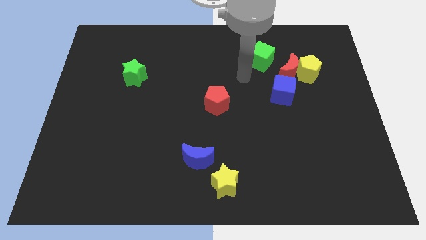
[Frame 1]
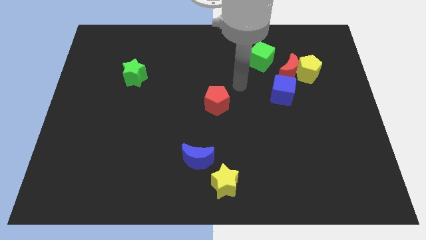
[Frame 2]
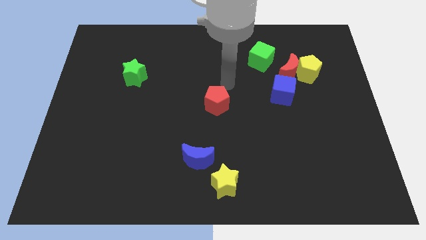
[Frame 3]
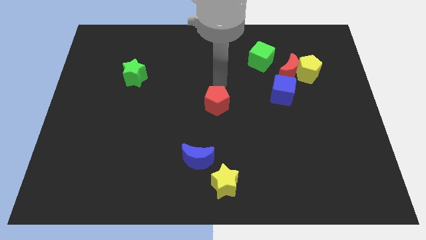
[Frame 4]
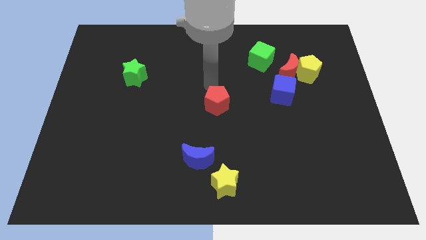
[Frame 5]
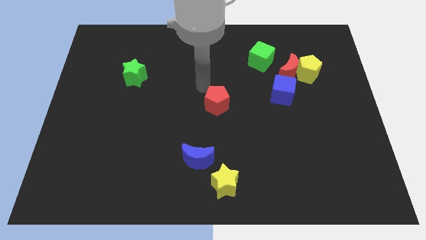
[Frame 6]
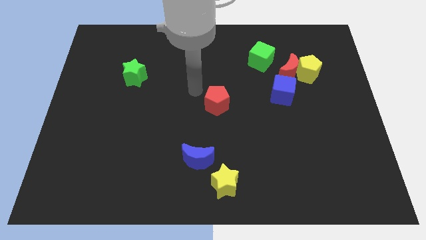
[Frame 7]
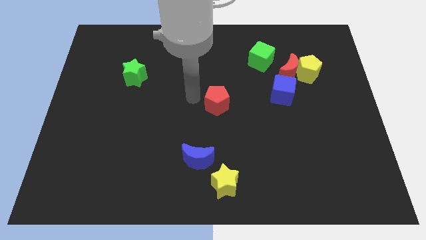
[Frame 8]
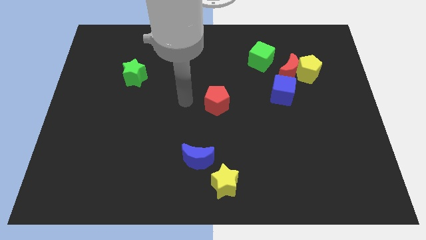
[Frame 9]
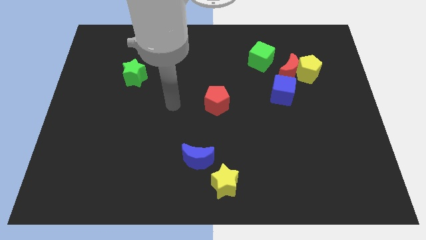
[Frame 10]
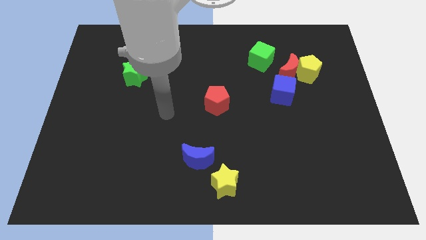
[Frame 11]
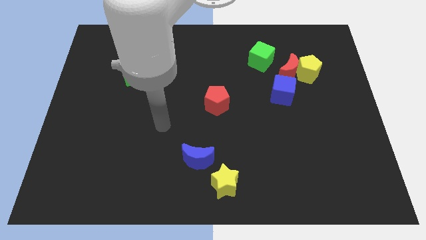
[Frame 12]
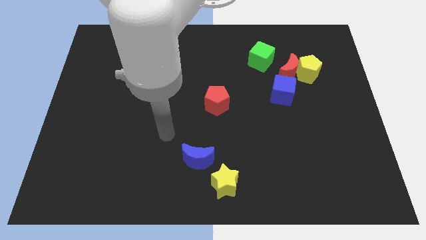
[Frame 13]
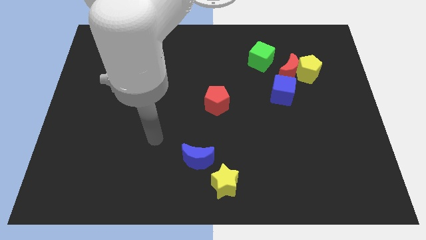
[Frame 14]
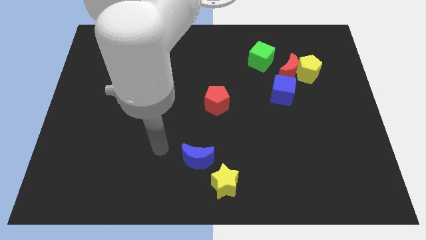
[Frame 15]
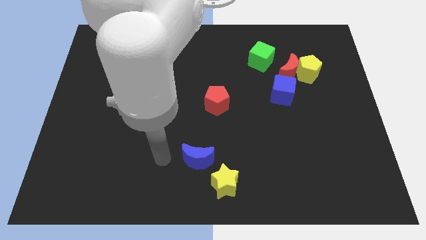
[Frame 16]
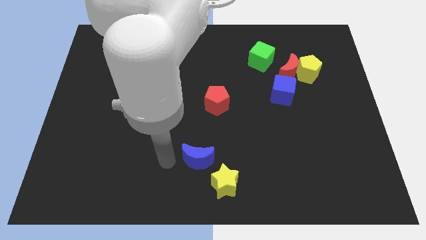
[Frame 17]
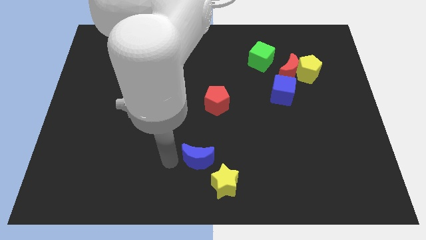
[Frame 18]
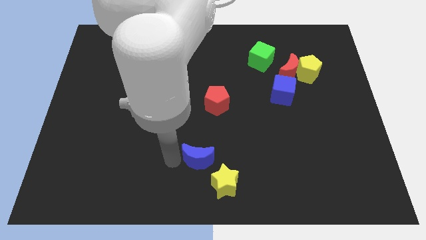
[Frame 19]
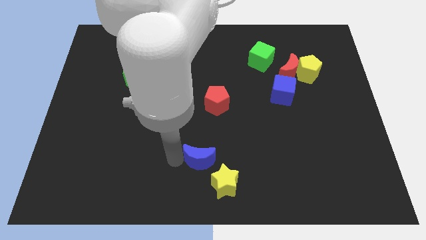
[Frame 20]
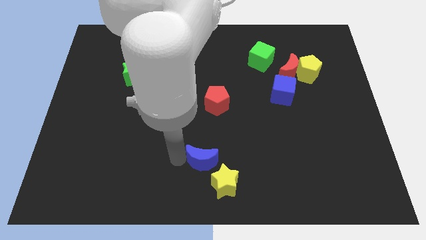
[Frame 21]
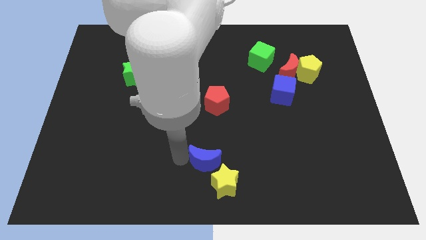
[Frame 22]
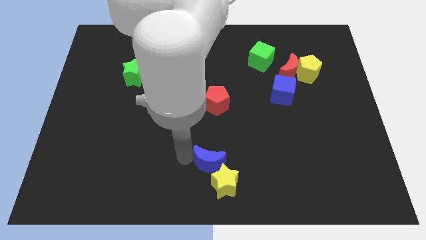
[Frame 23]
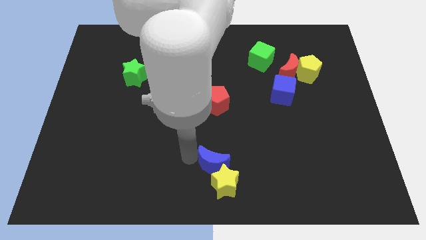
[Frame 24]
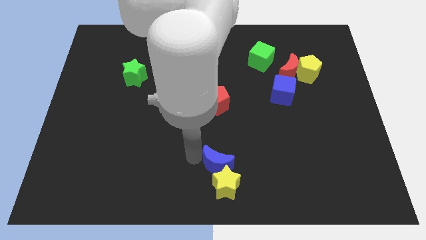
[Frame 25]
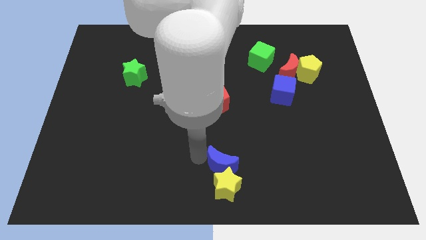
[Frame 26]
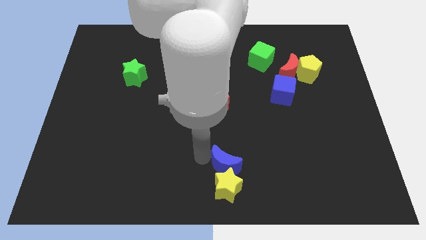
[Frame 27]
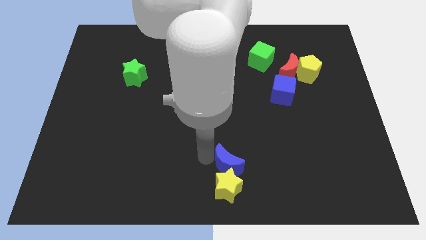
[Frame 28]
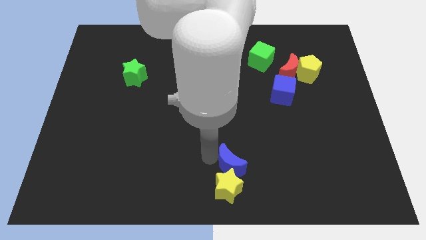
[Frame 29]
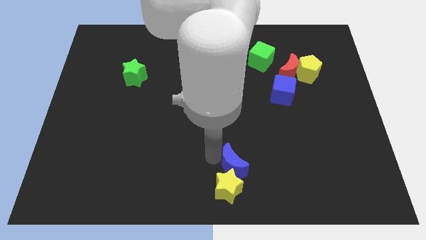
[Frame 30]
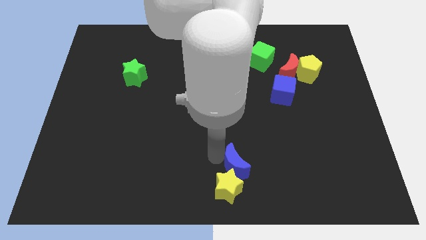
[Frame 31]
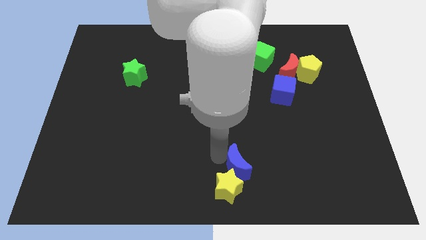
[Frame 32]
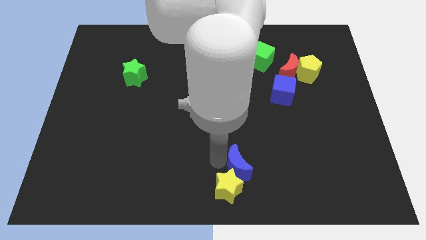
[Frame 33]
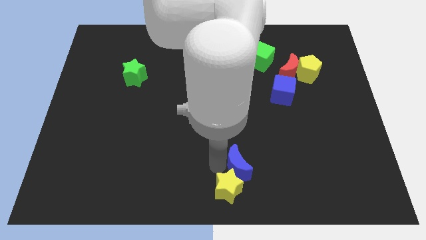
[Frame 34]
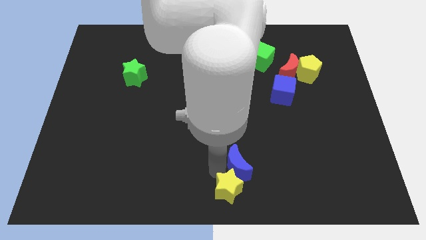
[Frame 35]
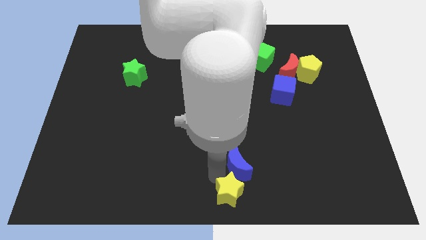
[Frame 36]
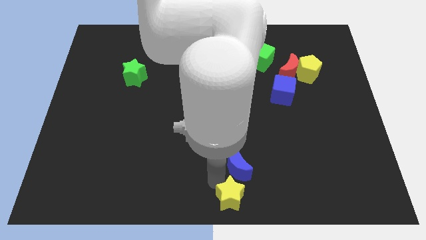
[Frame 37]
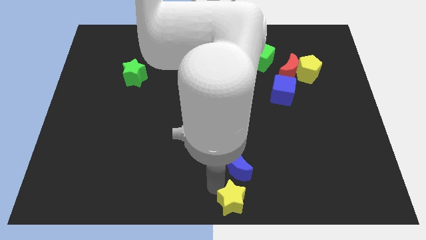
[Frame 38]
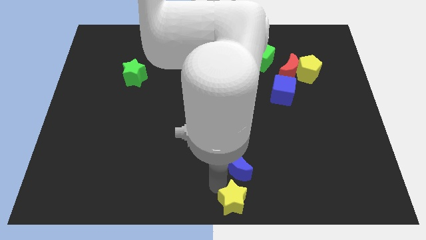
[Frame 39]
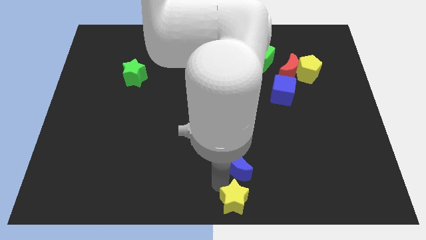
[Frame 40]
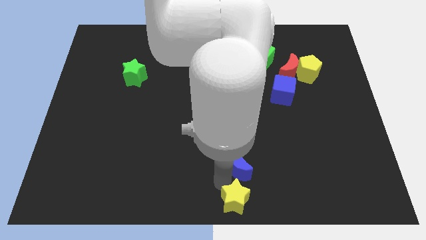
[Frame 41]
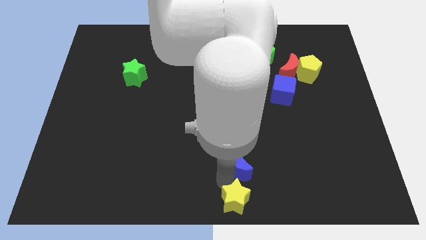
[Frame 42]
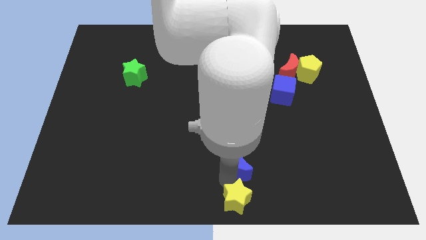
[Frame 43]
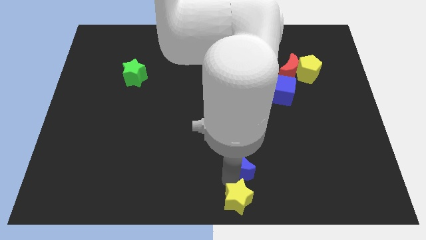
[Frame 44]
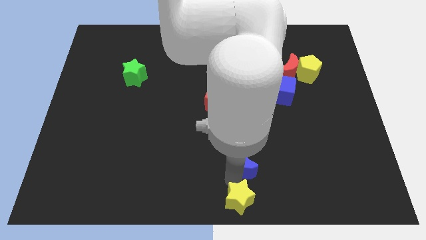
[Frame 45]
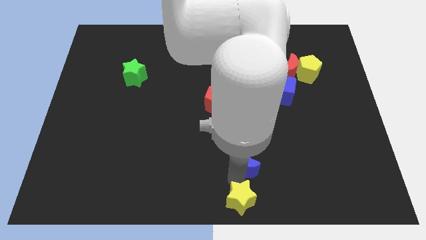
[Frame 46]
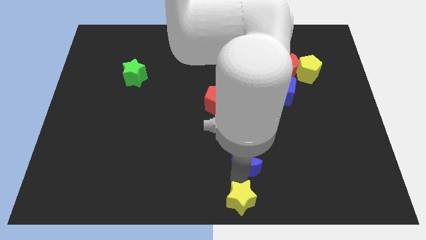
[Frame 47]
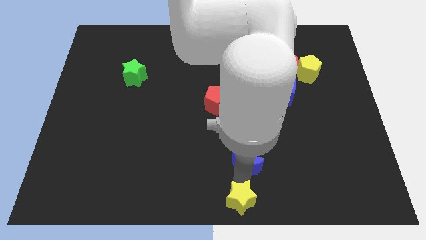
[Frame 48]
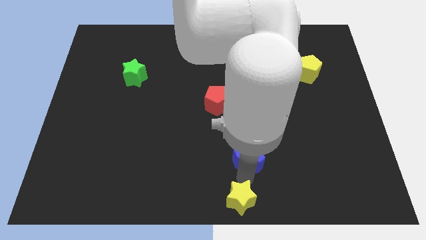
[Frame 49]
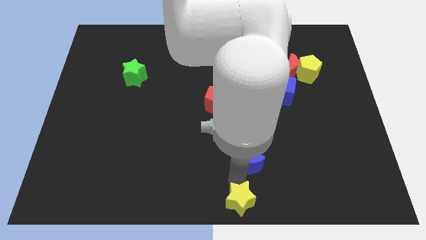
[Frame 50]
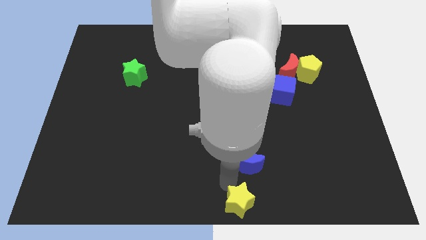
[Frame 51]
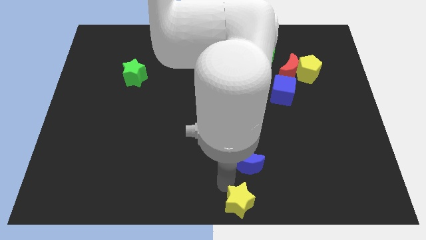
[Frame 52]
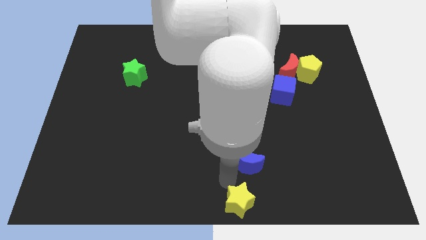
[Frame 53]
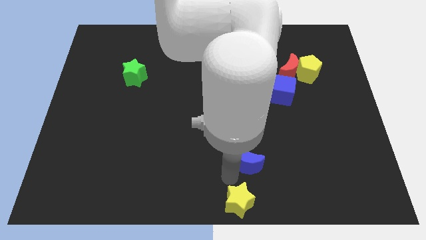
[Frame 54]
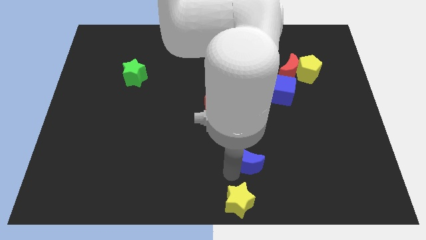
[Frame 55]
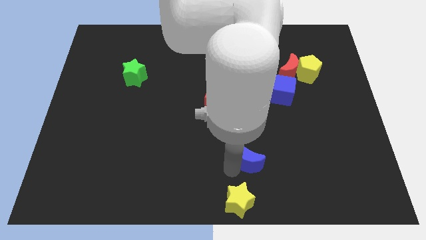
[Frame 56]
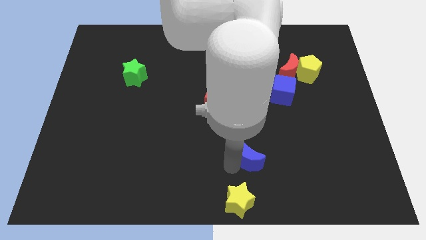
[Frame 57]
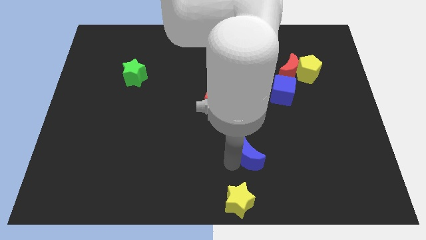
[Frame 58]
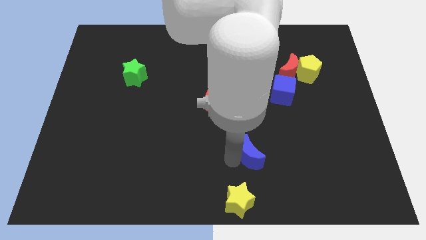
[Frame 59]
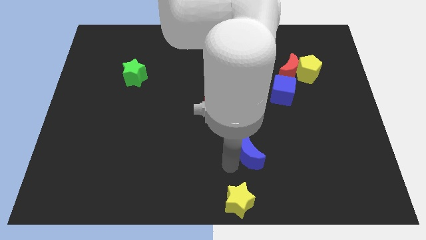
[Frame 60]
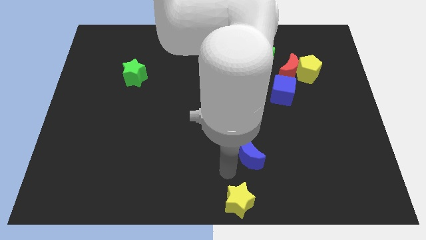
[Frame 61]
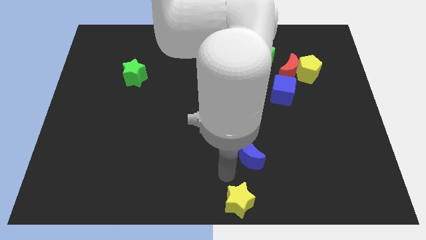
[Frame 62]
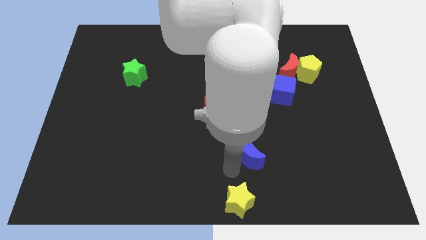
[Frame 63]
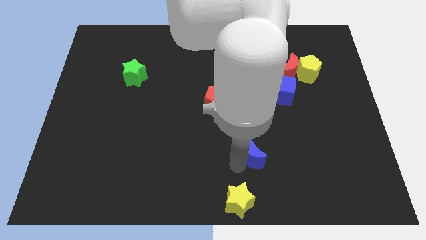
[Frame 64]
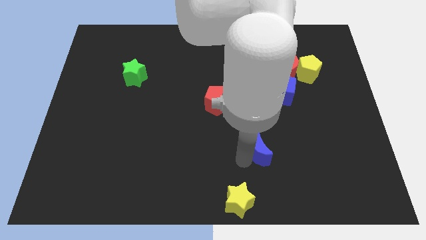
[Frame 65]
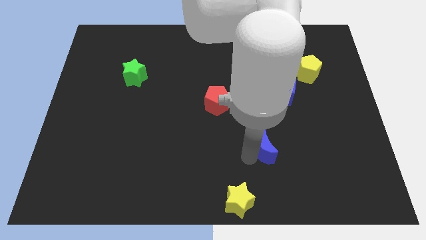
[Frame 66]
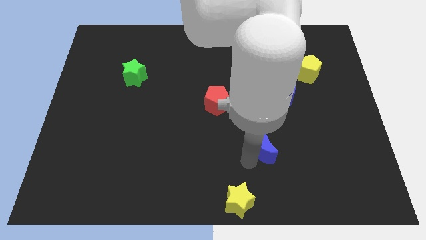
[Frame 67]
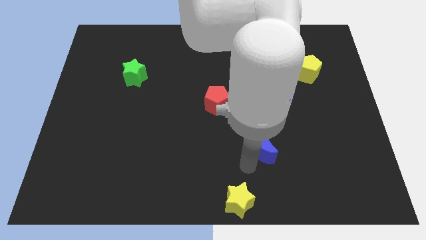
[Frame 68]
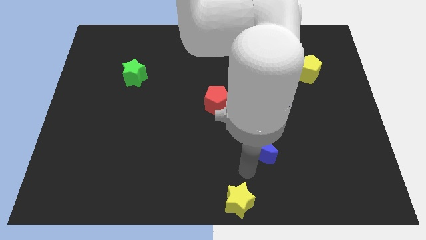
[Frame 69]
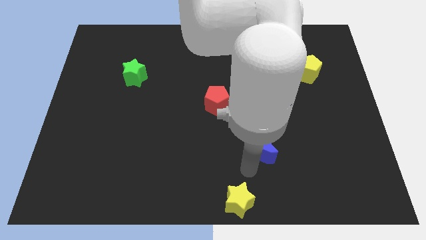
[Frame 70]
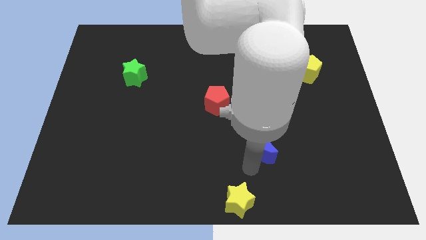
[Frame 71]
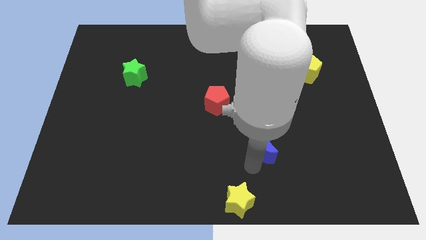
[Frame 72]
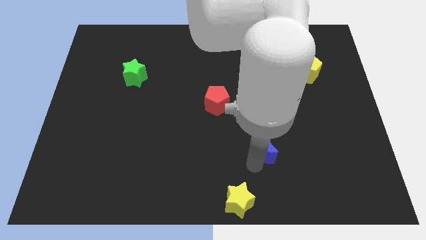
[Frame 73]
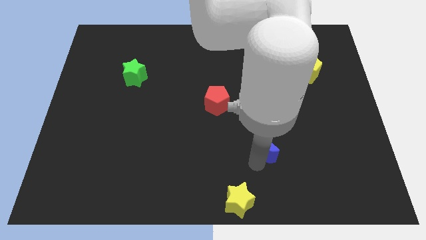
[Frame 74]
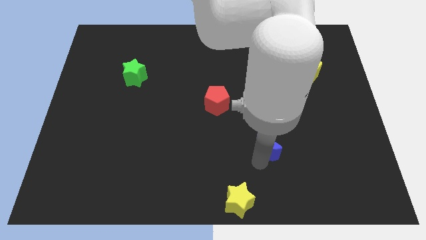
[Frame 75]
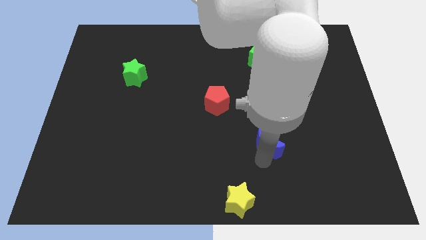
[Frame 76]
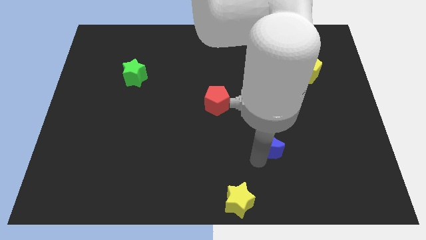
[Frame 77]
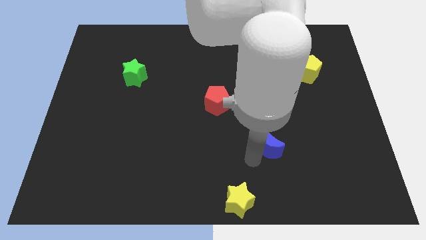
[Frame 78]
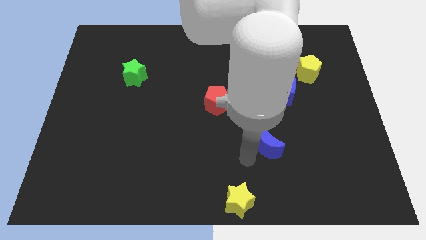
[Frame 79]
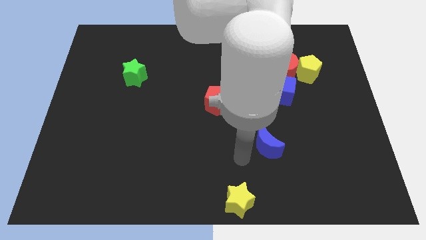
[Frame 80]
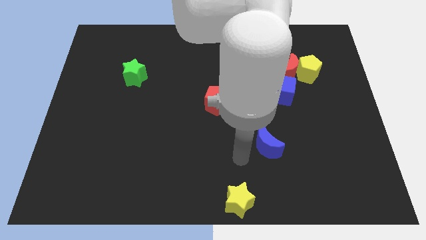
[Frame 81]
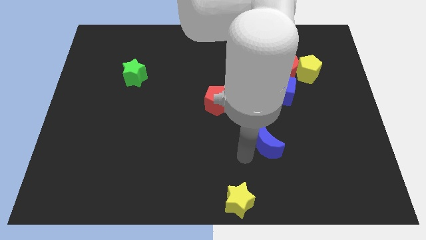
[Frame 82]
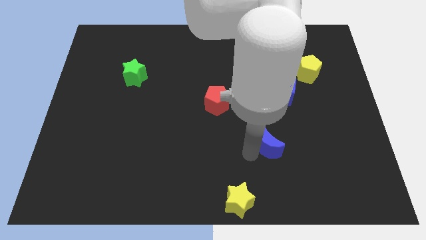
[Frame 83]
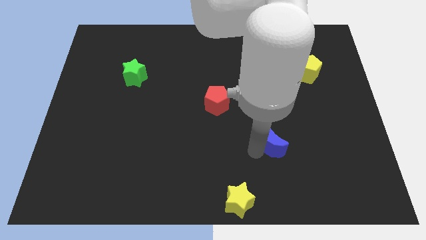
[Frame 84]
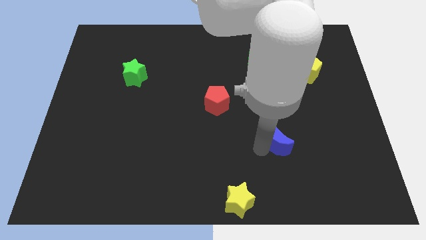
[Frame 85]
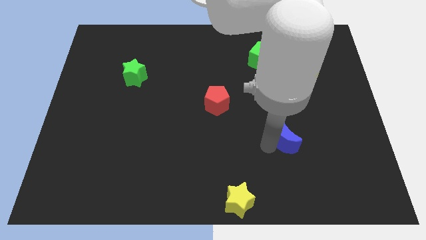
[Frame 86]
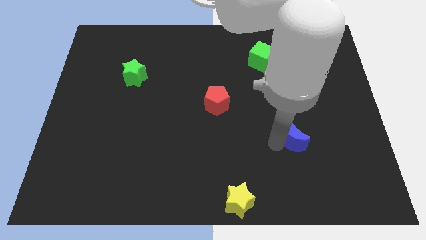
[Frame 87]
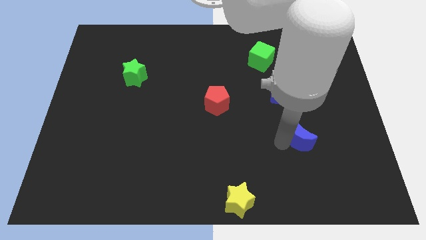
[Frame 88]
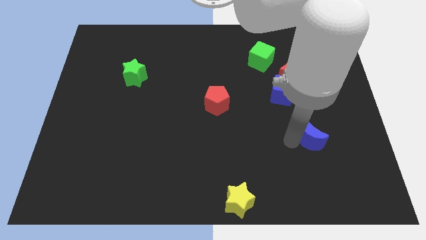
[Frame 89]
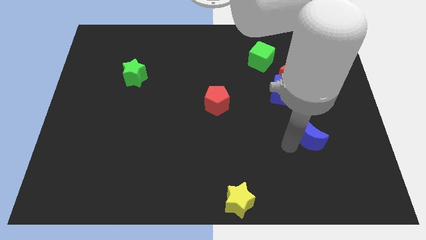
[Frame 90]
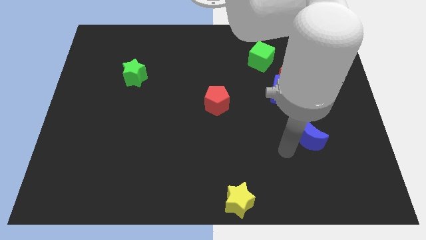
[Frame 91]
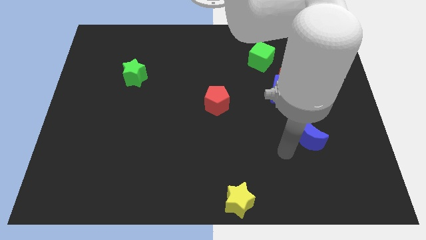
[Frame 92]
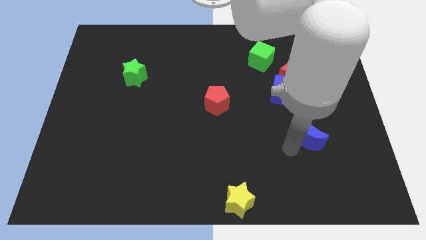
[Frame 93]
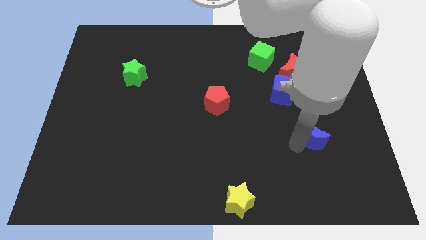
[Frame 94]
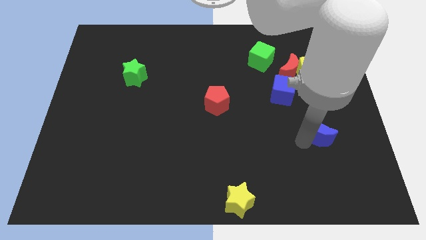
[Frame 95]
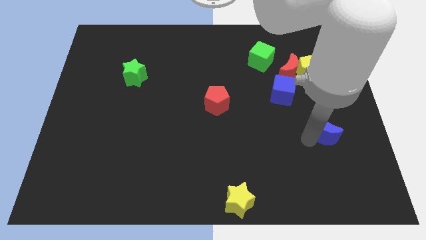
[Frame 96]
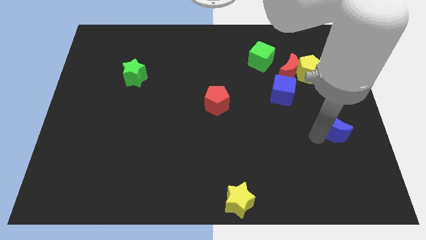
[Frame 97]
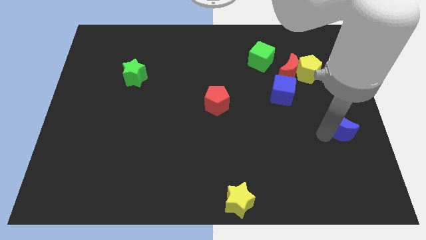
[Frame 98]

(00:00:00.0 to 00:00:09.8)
push the blue moon to the center right
